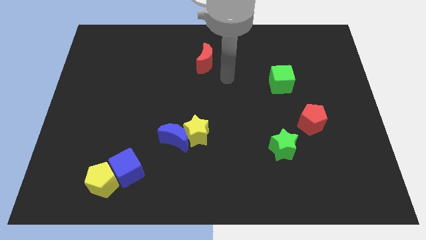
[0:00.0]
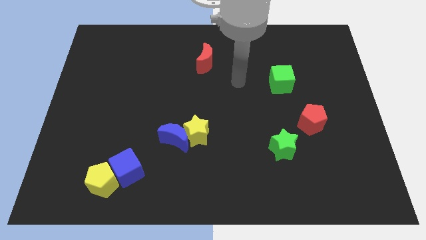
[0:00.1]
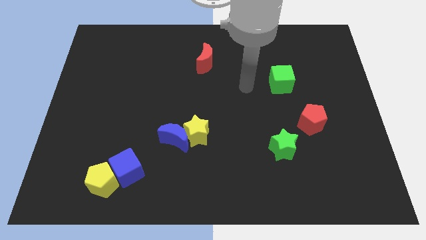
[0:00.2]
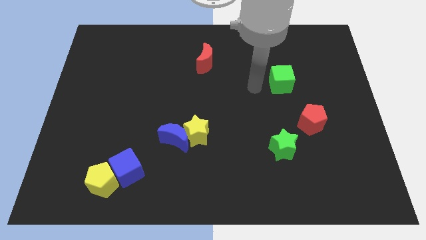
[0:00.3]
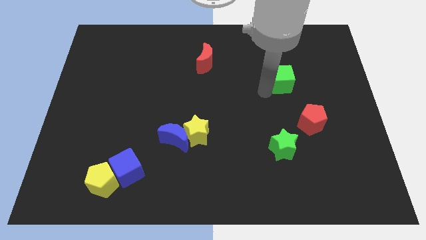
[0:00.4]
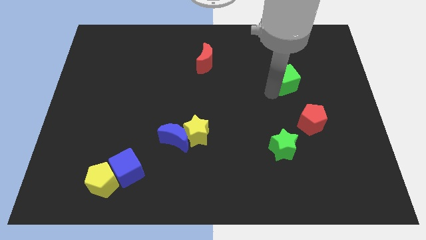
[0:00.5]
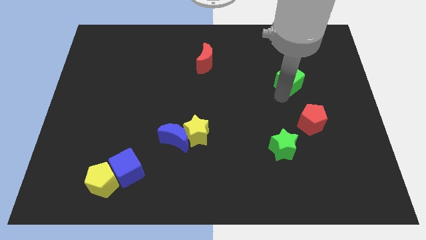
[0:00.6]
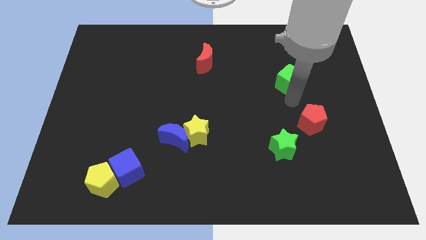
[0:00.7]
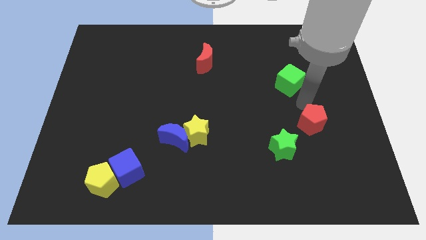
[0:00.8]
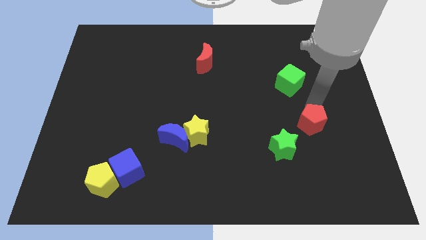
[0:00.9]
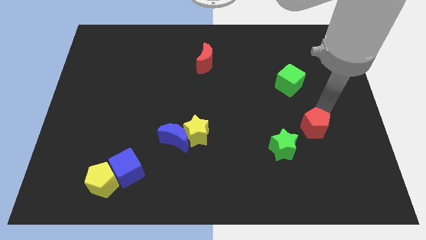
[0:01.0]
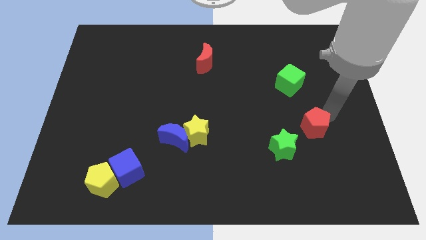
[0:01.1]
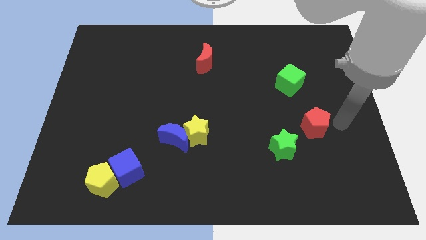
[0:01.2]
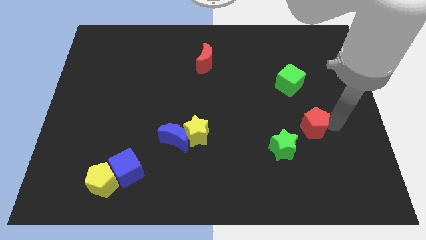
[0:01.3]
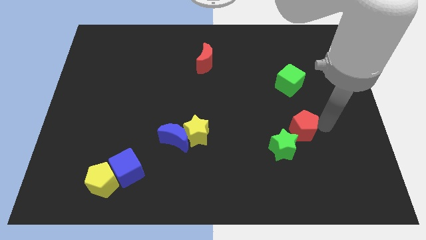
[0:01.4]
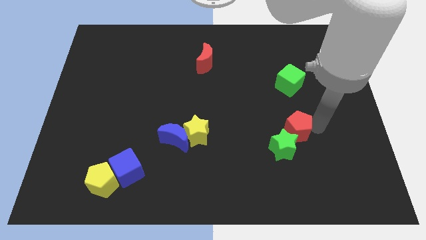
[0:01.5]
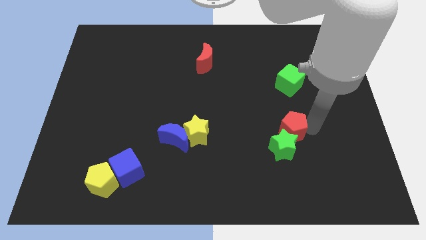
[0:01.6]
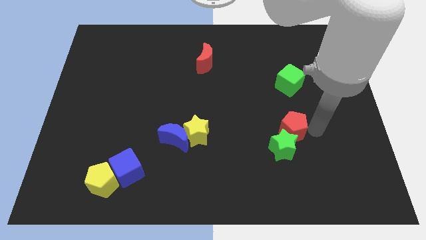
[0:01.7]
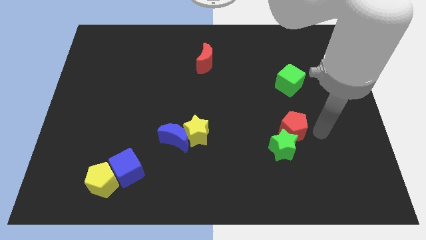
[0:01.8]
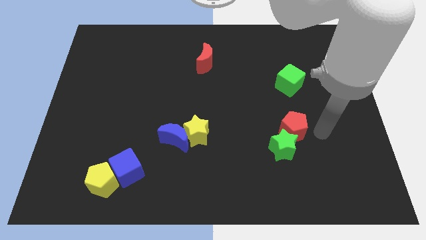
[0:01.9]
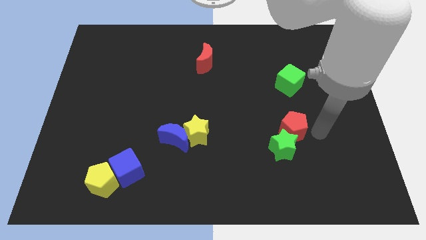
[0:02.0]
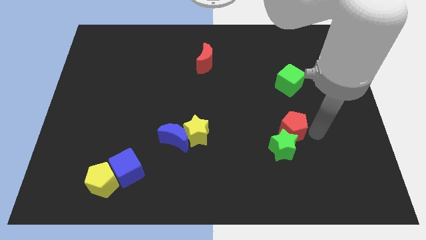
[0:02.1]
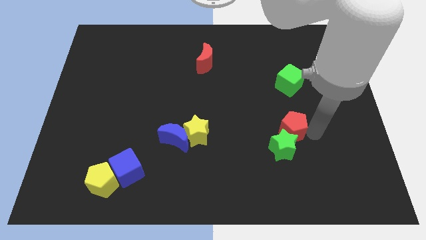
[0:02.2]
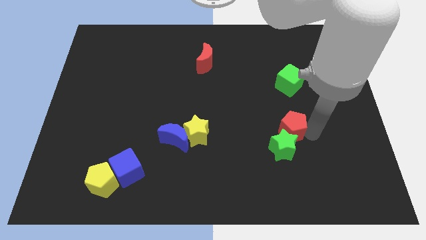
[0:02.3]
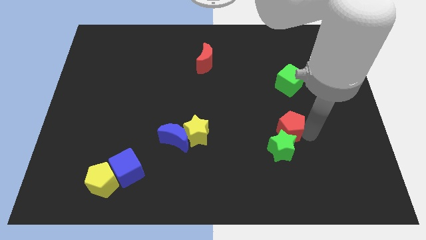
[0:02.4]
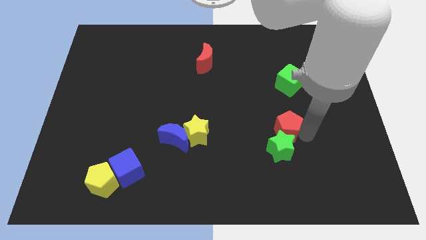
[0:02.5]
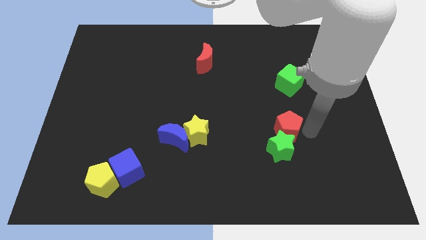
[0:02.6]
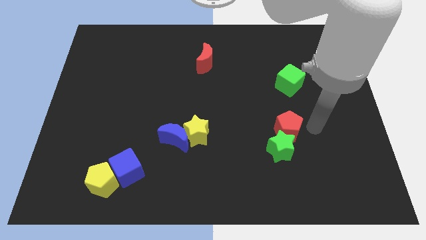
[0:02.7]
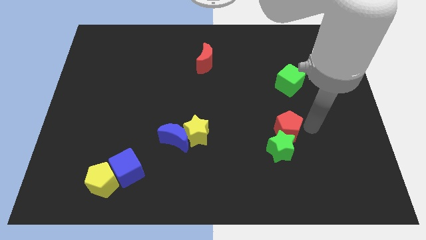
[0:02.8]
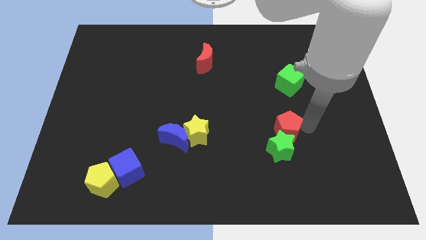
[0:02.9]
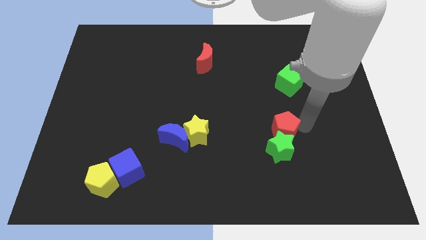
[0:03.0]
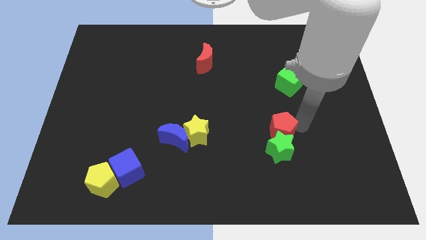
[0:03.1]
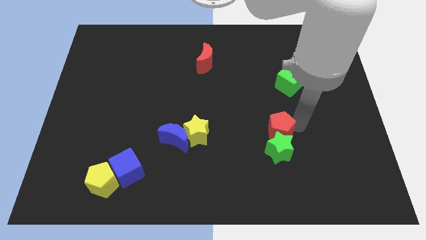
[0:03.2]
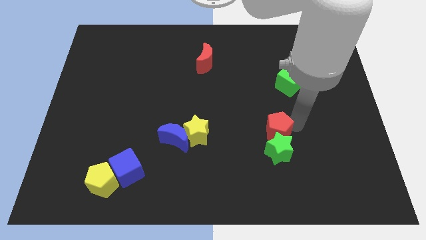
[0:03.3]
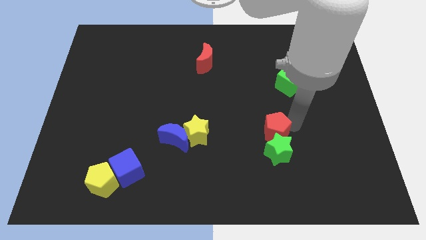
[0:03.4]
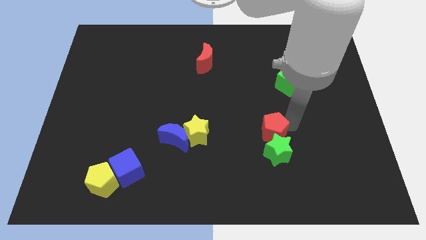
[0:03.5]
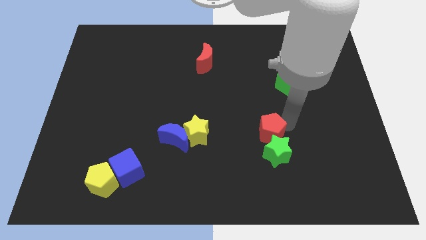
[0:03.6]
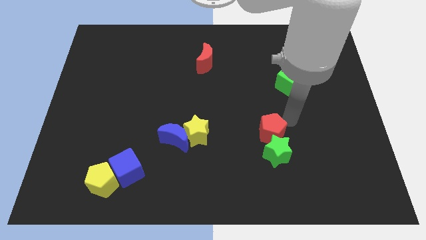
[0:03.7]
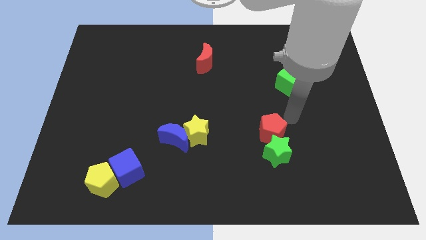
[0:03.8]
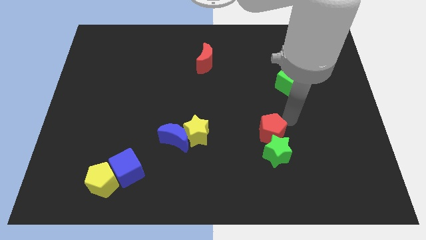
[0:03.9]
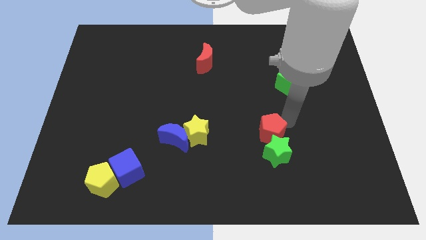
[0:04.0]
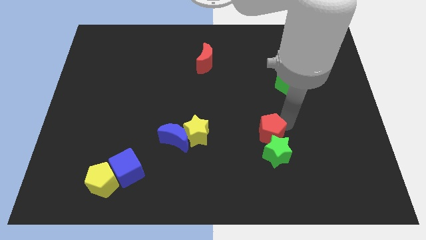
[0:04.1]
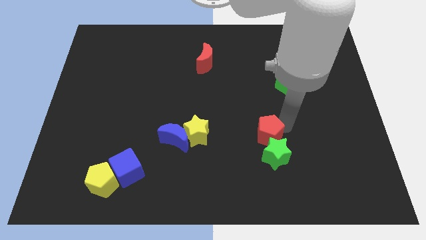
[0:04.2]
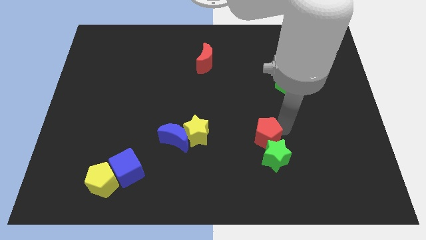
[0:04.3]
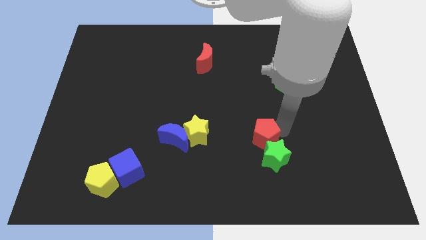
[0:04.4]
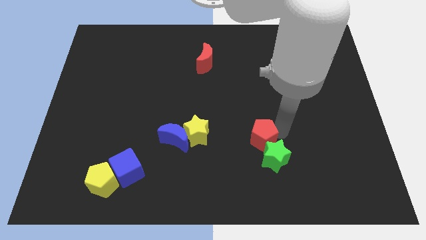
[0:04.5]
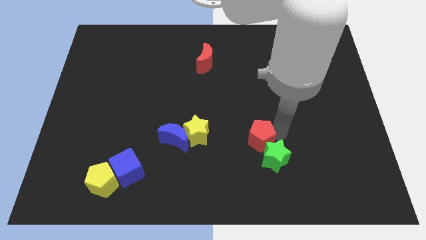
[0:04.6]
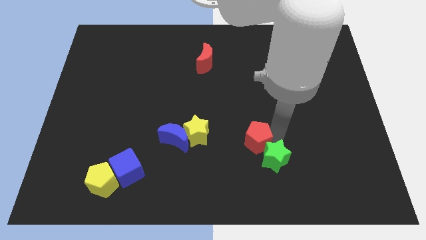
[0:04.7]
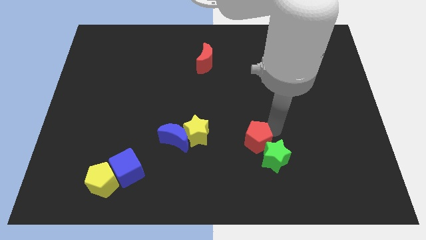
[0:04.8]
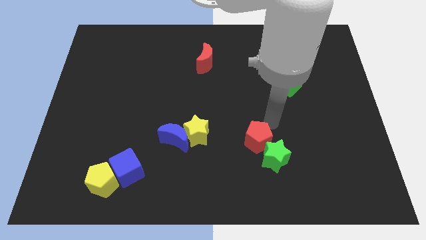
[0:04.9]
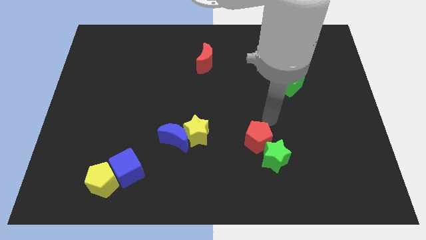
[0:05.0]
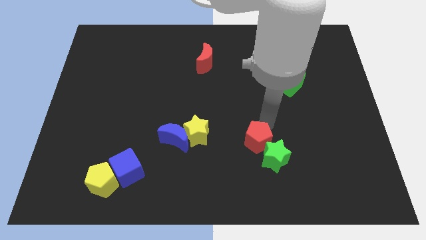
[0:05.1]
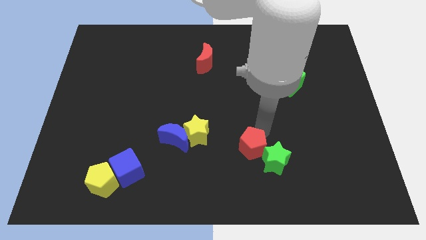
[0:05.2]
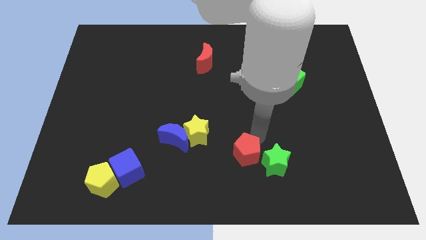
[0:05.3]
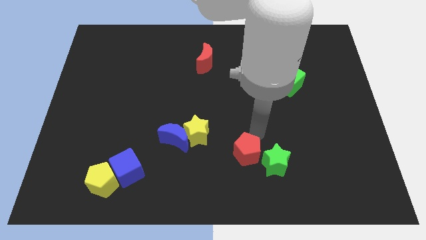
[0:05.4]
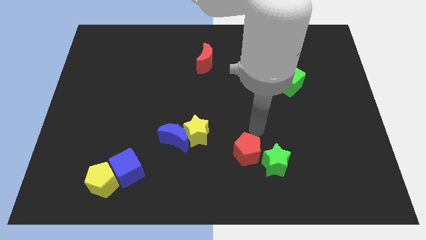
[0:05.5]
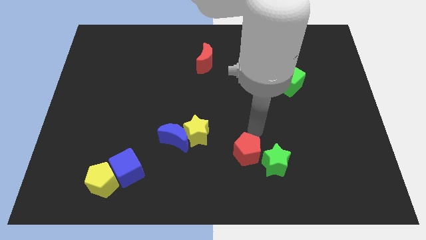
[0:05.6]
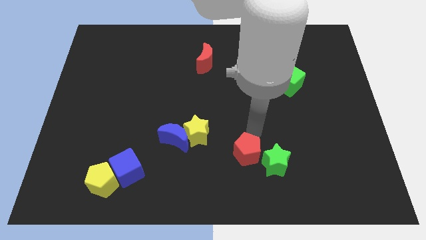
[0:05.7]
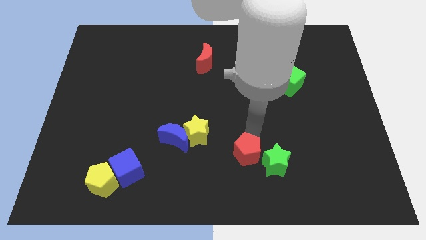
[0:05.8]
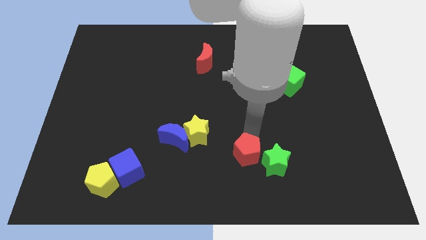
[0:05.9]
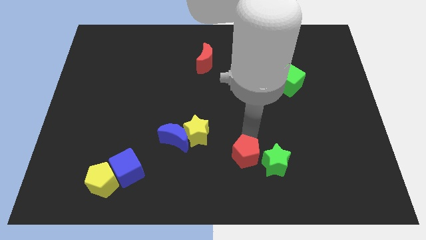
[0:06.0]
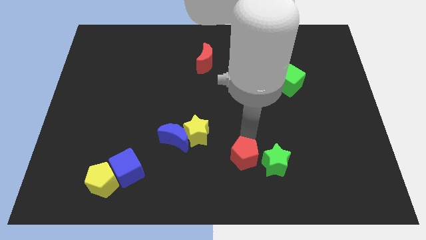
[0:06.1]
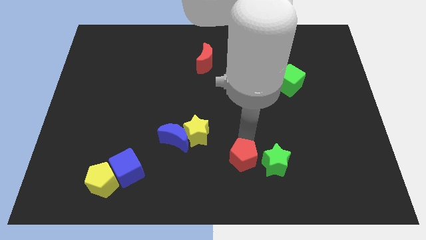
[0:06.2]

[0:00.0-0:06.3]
put the red pentagon to the bottom side

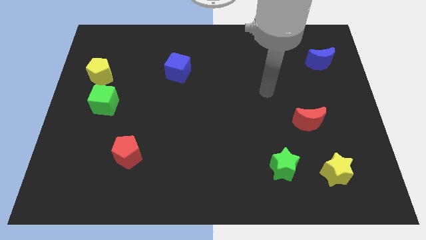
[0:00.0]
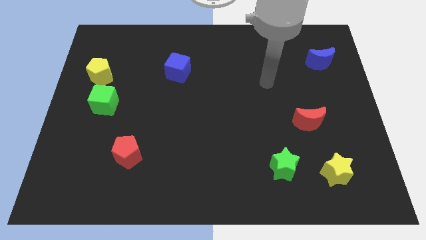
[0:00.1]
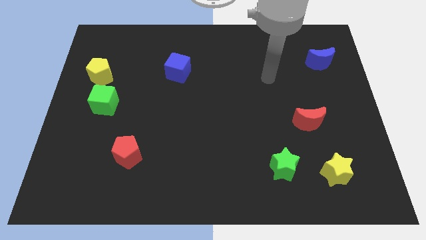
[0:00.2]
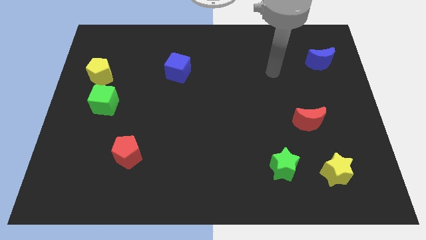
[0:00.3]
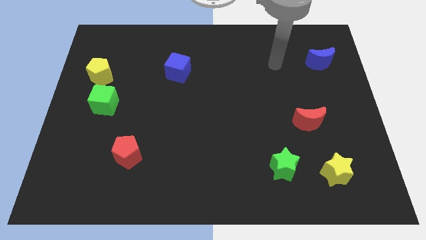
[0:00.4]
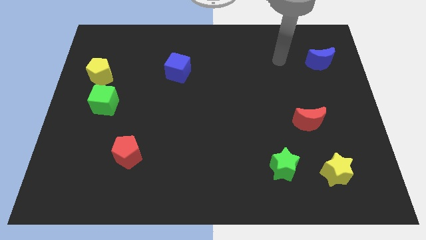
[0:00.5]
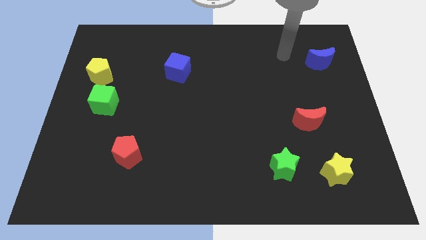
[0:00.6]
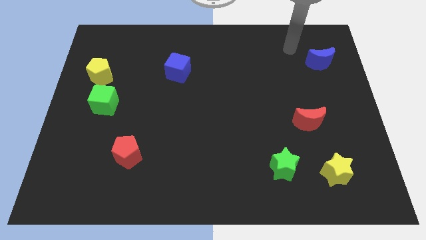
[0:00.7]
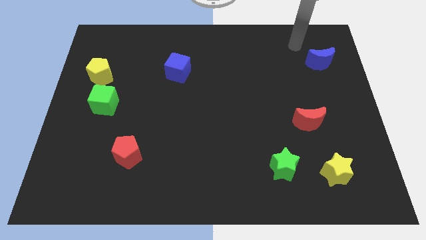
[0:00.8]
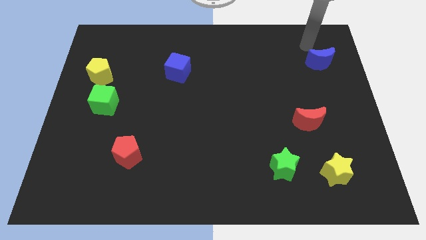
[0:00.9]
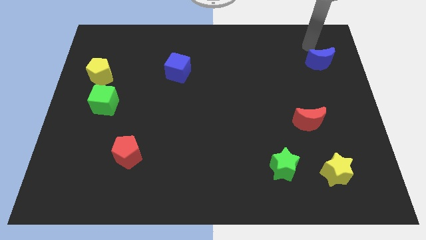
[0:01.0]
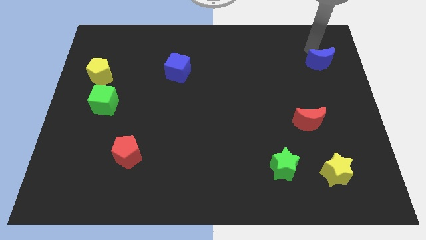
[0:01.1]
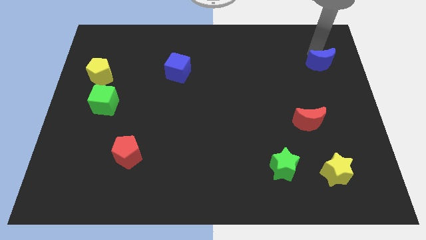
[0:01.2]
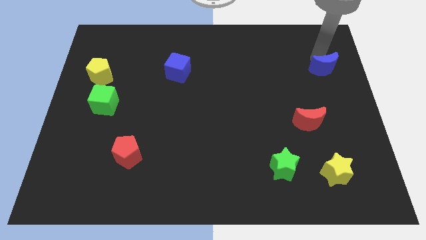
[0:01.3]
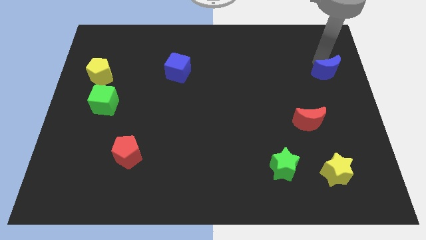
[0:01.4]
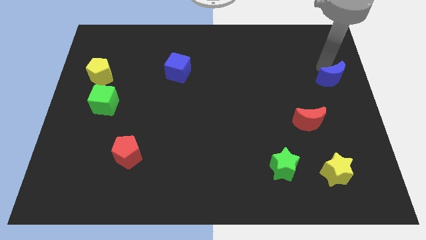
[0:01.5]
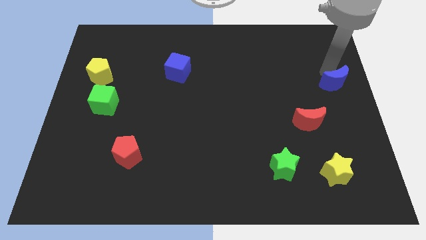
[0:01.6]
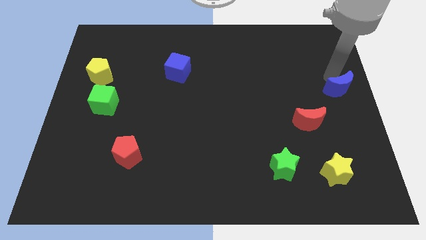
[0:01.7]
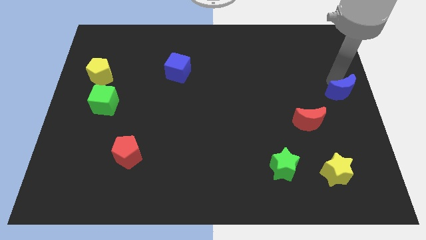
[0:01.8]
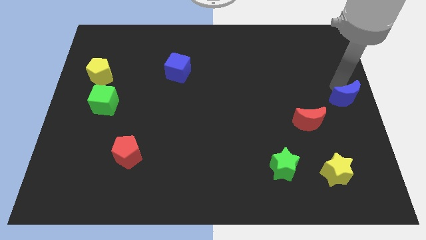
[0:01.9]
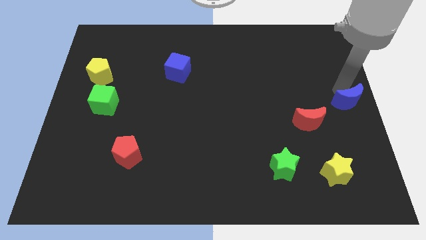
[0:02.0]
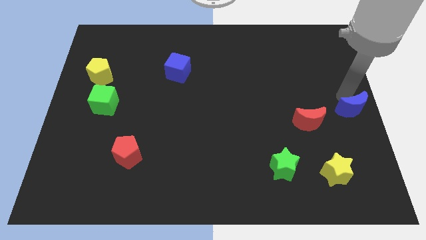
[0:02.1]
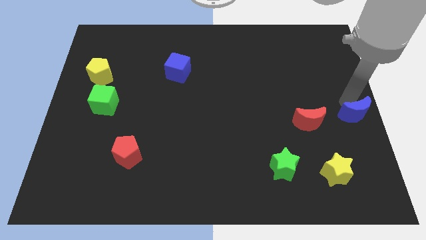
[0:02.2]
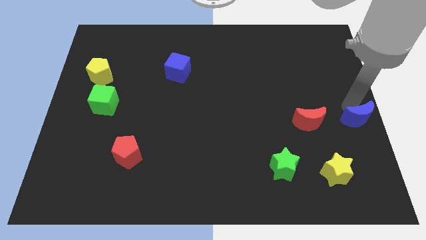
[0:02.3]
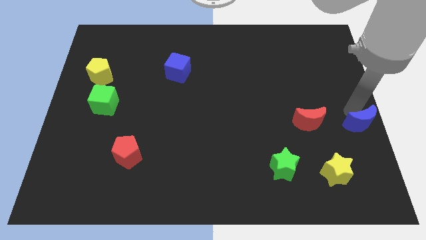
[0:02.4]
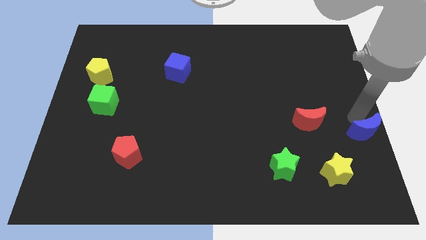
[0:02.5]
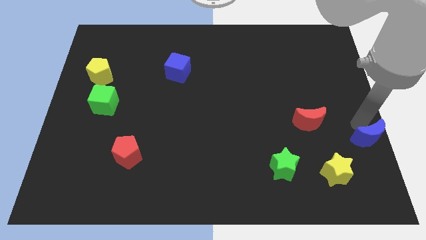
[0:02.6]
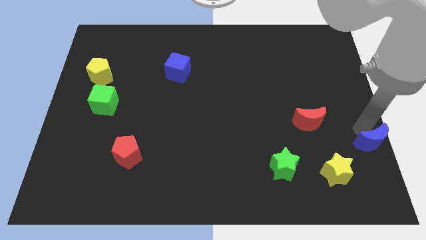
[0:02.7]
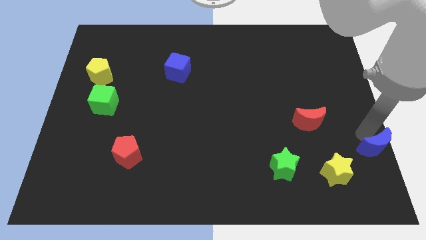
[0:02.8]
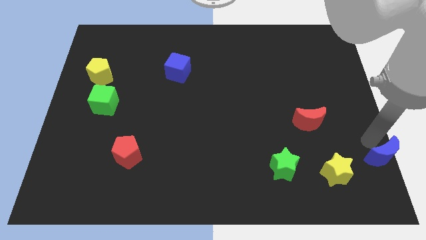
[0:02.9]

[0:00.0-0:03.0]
slide the blue moon to the bottom right of the board
